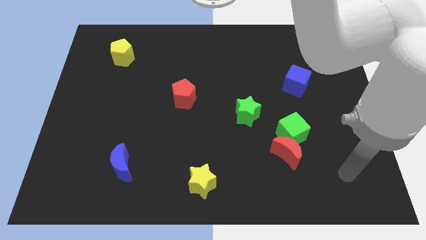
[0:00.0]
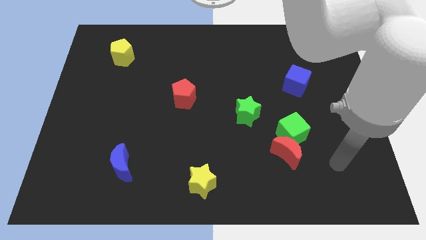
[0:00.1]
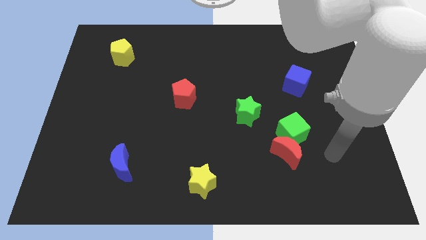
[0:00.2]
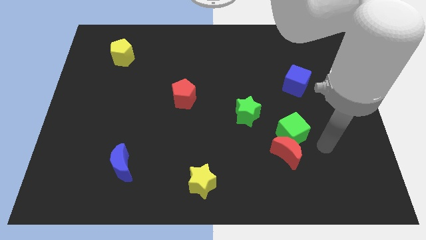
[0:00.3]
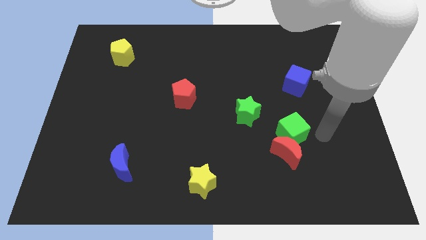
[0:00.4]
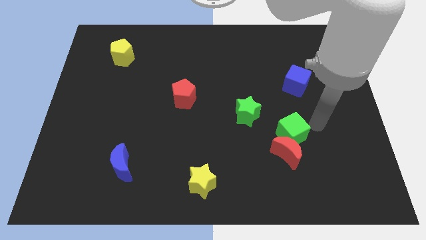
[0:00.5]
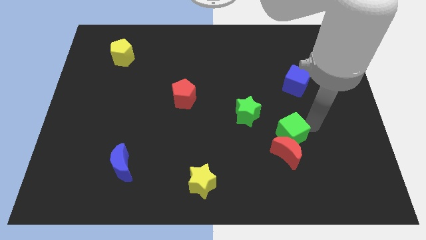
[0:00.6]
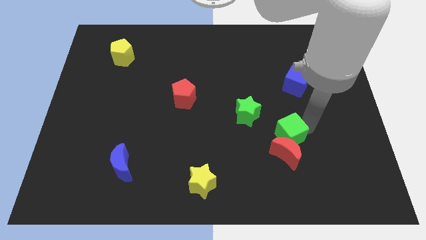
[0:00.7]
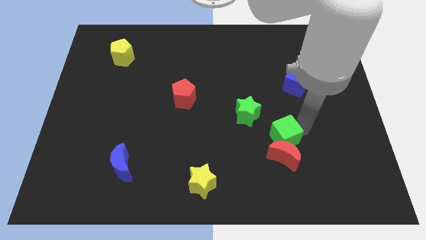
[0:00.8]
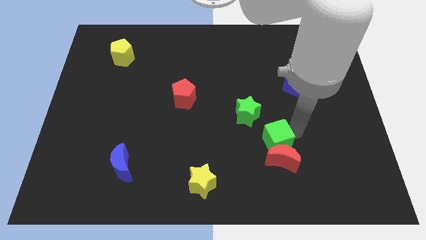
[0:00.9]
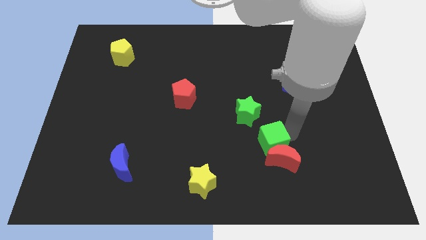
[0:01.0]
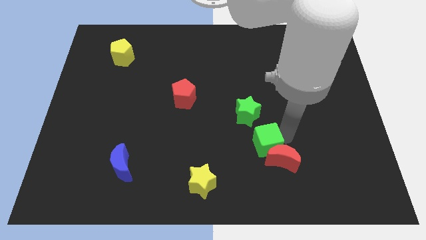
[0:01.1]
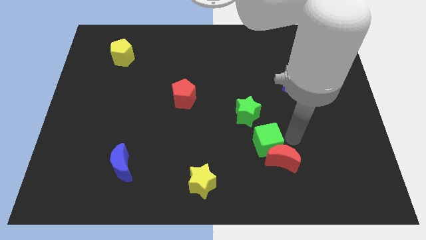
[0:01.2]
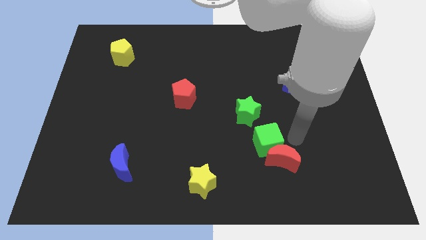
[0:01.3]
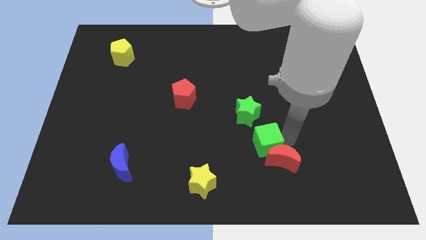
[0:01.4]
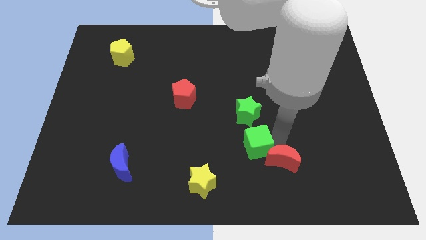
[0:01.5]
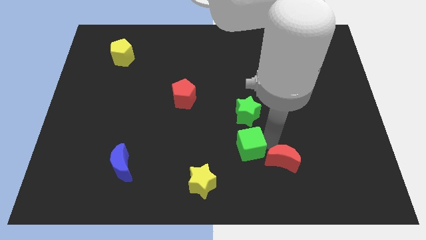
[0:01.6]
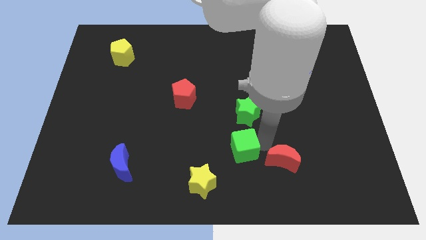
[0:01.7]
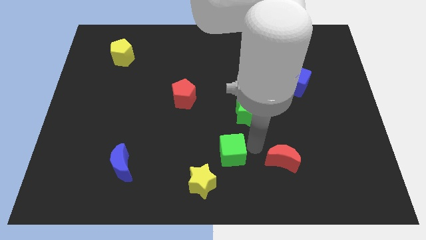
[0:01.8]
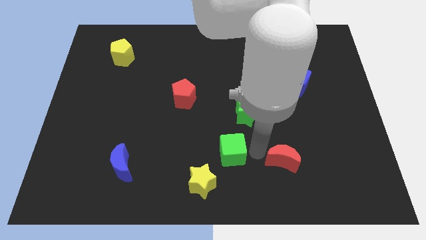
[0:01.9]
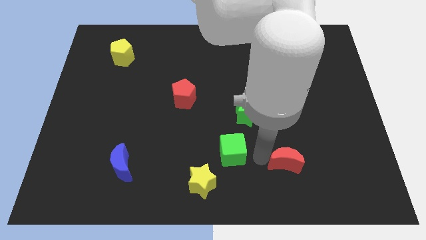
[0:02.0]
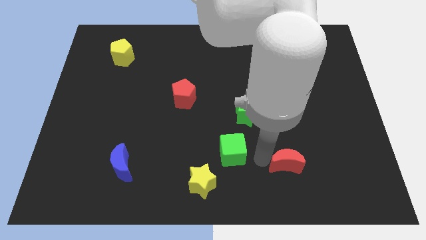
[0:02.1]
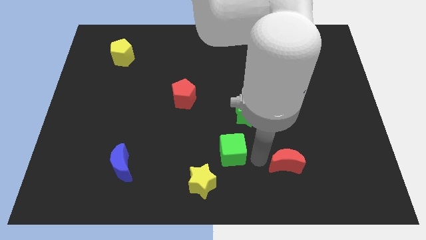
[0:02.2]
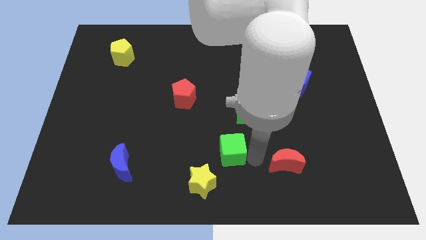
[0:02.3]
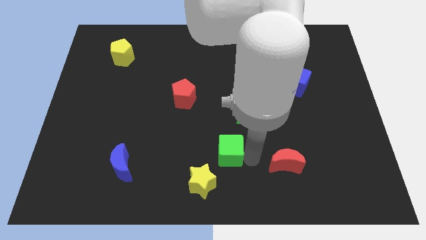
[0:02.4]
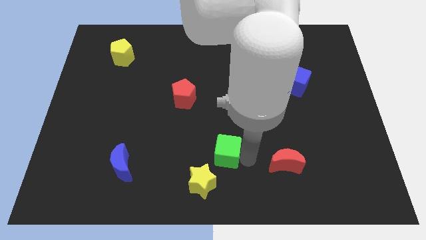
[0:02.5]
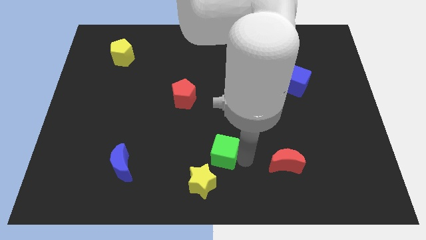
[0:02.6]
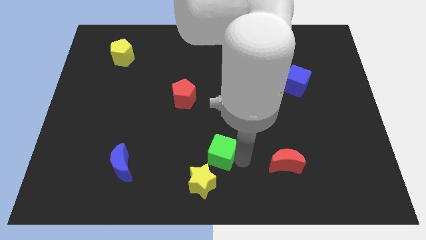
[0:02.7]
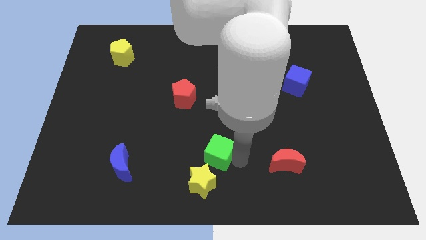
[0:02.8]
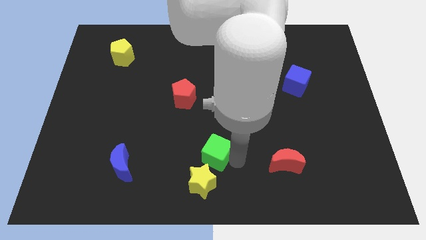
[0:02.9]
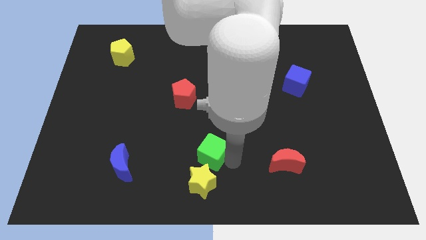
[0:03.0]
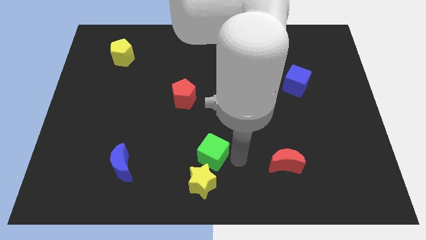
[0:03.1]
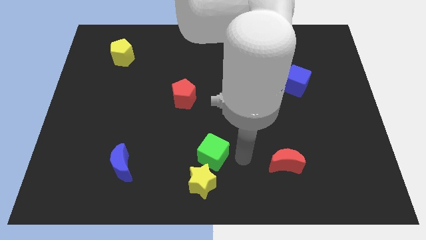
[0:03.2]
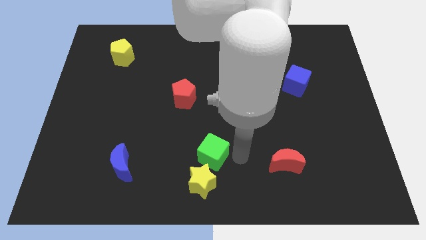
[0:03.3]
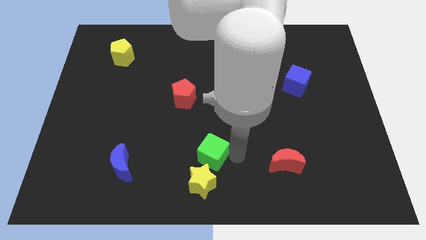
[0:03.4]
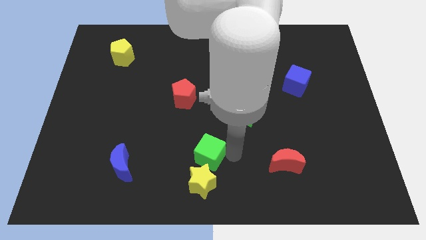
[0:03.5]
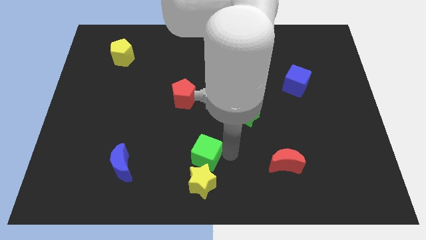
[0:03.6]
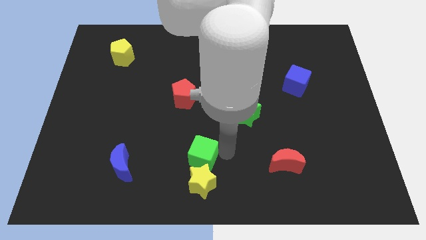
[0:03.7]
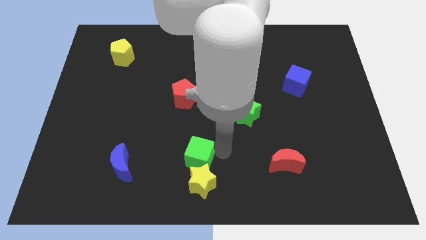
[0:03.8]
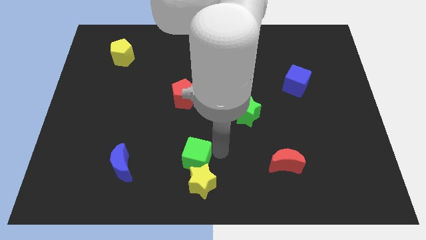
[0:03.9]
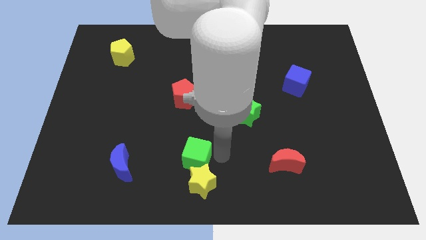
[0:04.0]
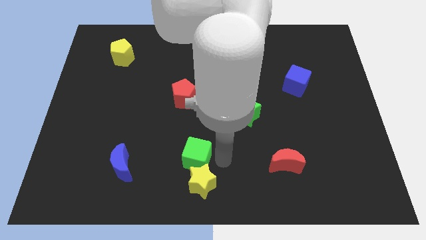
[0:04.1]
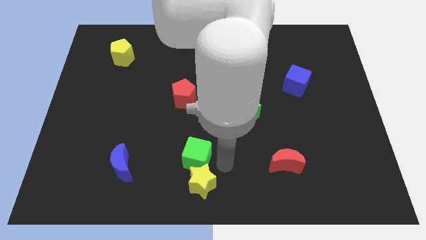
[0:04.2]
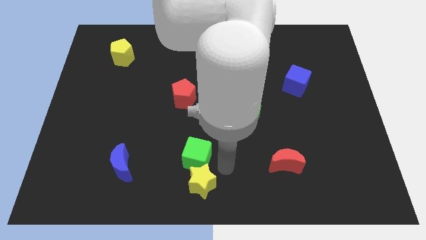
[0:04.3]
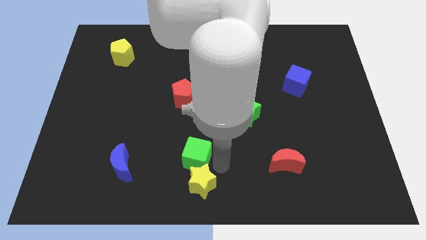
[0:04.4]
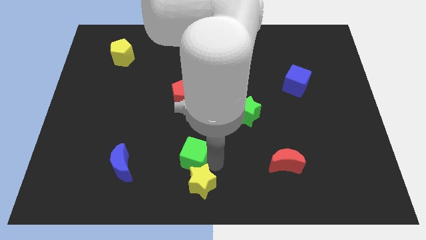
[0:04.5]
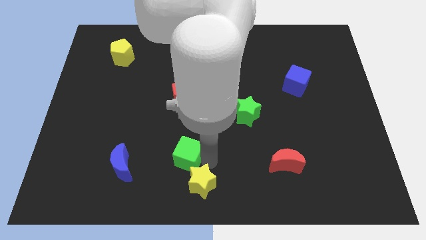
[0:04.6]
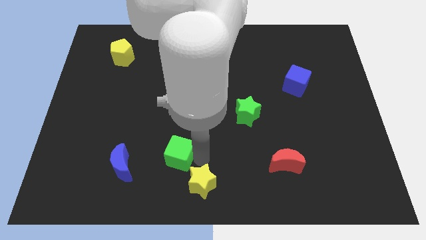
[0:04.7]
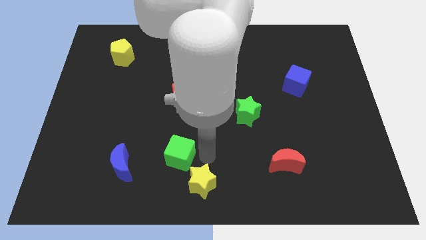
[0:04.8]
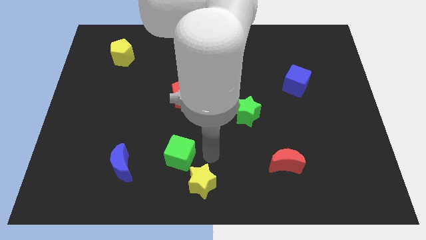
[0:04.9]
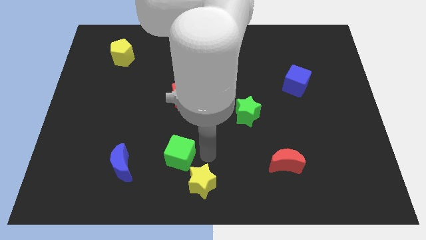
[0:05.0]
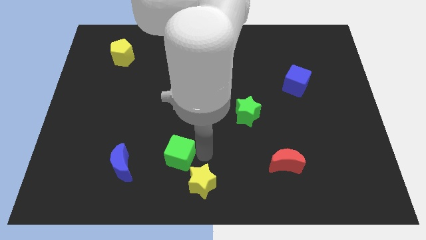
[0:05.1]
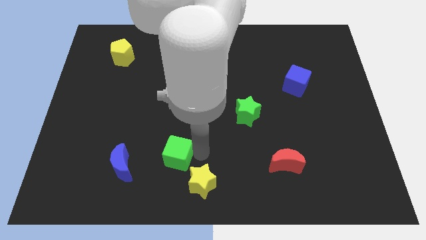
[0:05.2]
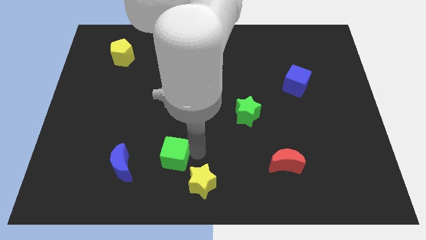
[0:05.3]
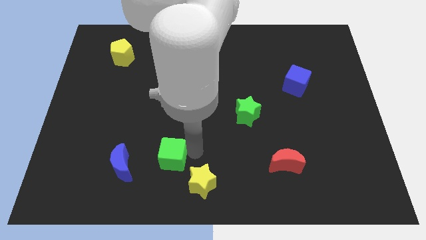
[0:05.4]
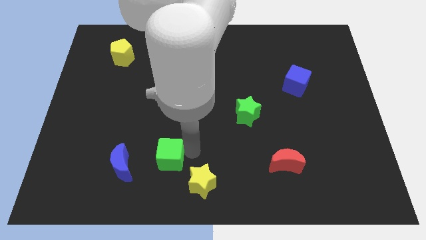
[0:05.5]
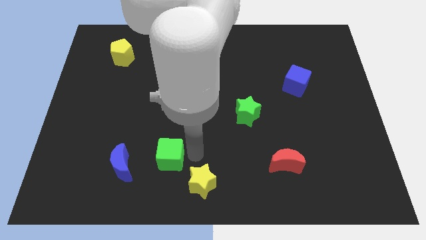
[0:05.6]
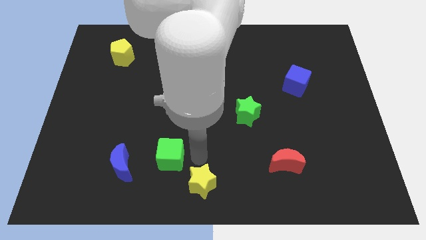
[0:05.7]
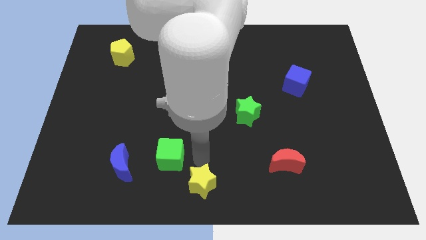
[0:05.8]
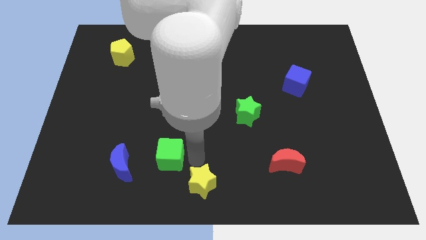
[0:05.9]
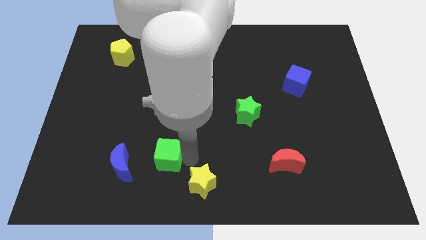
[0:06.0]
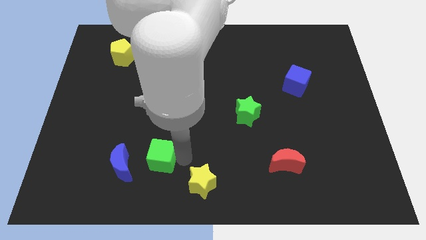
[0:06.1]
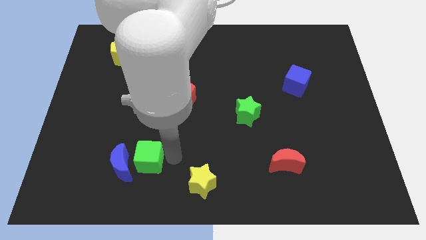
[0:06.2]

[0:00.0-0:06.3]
move the green cube next to the blue moon

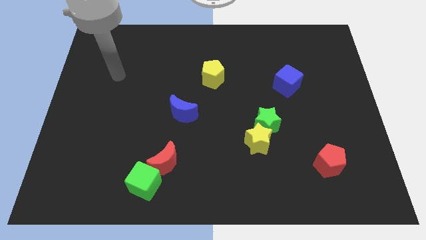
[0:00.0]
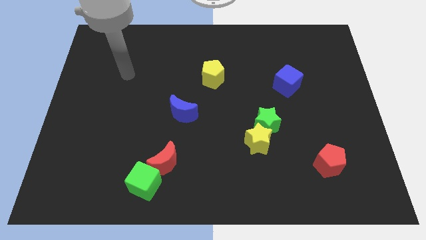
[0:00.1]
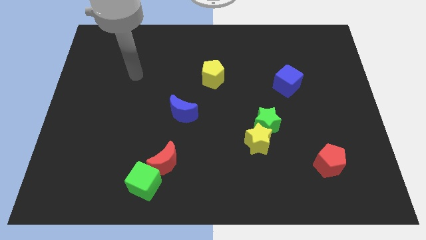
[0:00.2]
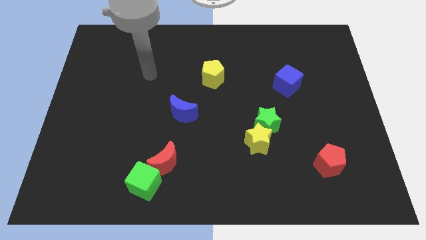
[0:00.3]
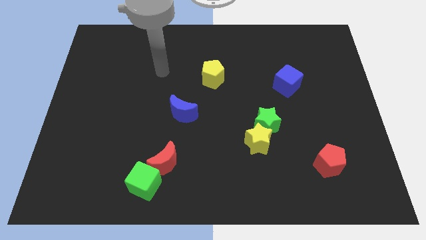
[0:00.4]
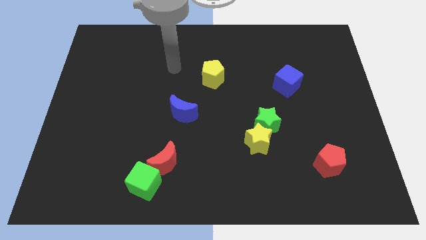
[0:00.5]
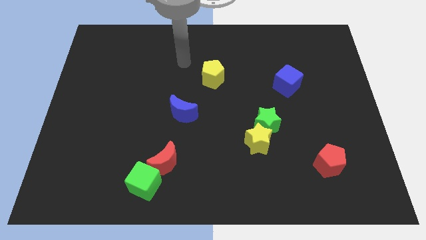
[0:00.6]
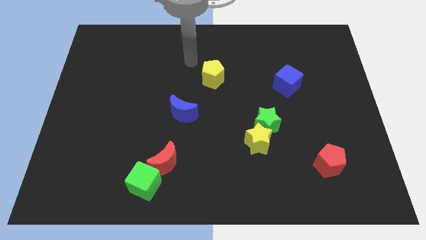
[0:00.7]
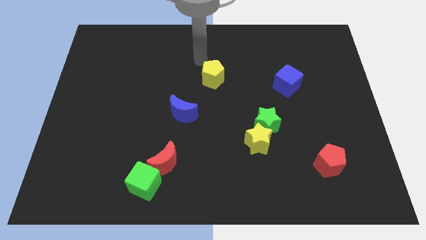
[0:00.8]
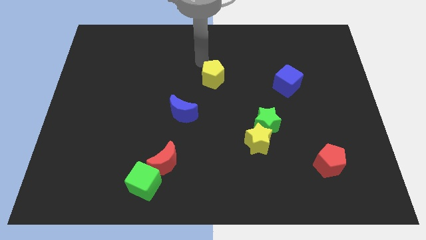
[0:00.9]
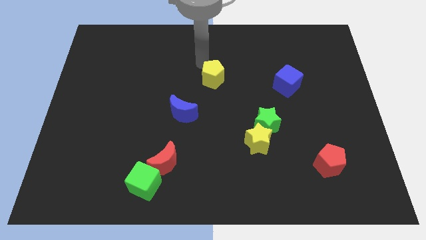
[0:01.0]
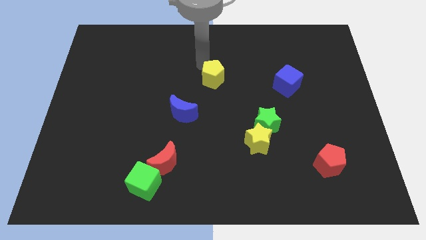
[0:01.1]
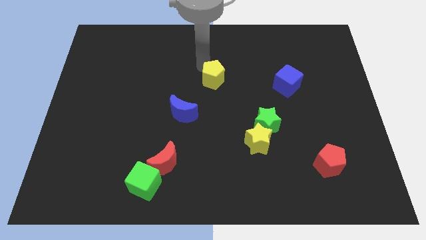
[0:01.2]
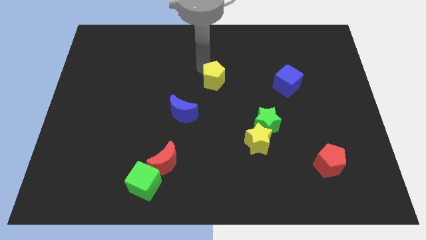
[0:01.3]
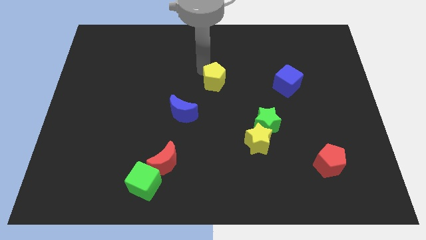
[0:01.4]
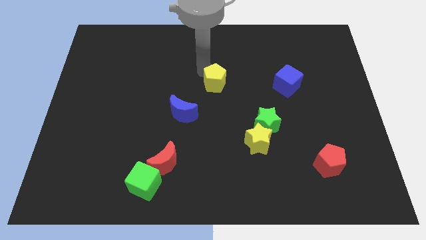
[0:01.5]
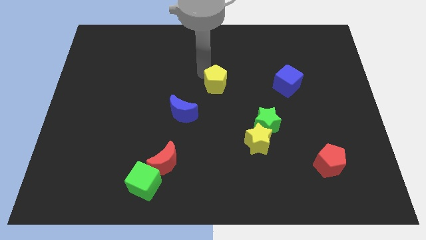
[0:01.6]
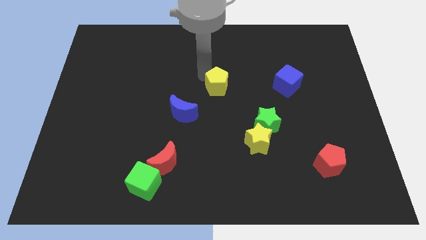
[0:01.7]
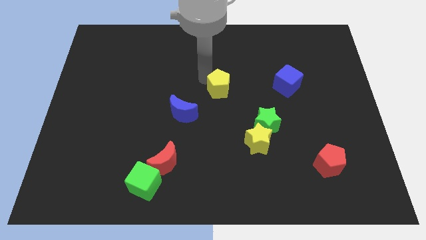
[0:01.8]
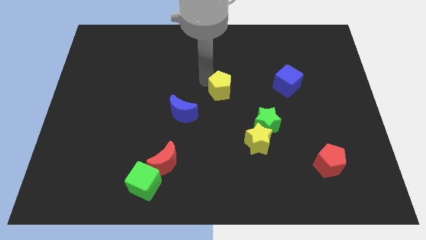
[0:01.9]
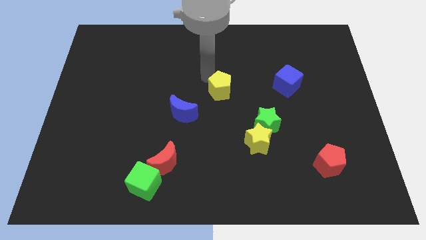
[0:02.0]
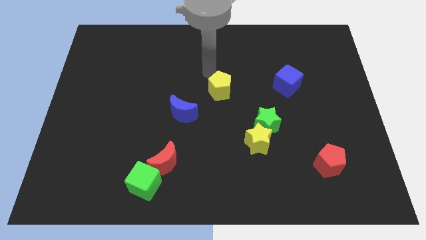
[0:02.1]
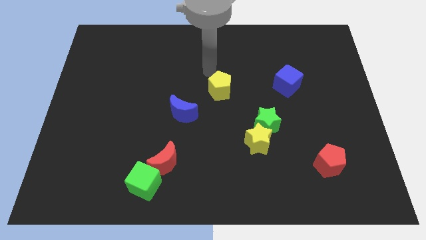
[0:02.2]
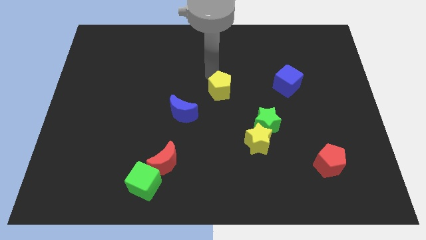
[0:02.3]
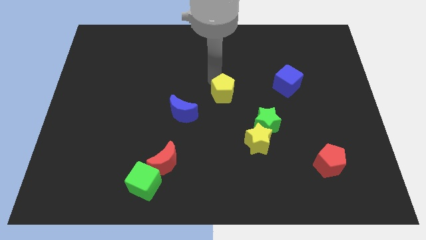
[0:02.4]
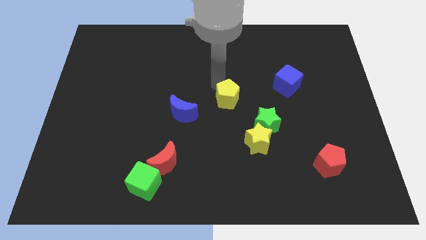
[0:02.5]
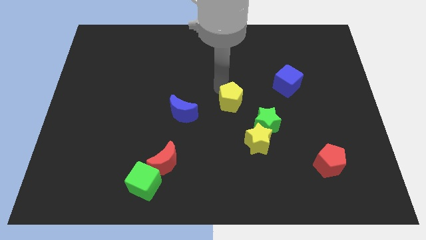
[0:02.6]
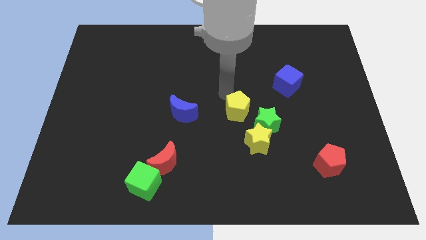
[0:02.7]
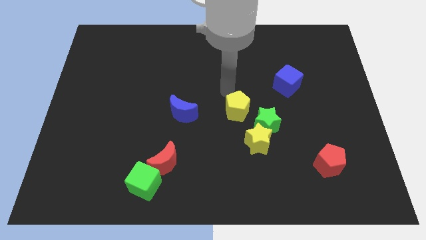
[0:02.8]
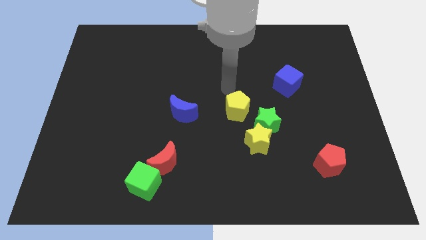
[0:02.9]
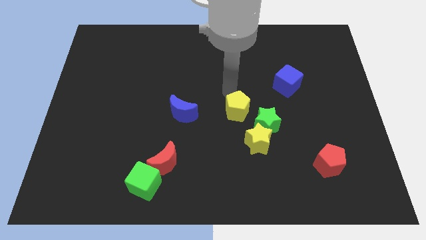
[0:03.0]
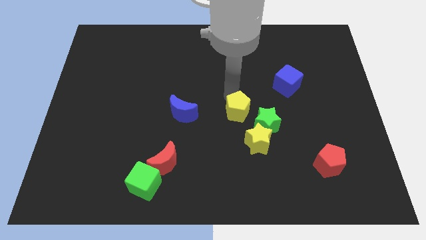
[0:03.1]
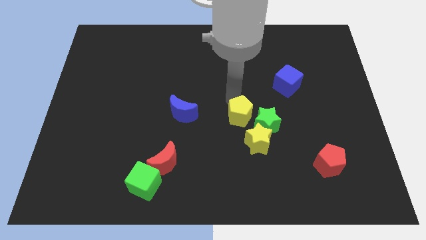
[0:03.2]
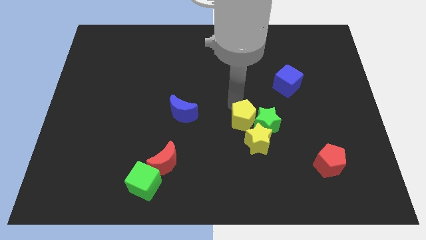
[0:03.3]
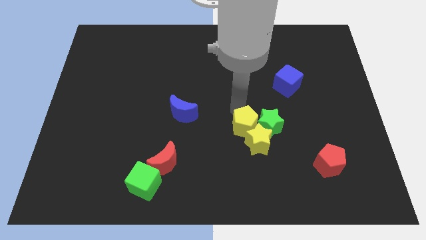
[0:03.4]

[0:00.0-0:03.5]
move the yellow pentagon next to the yellow star
